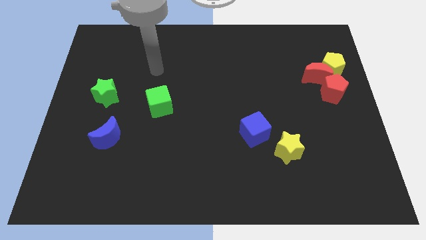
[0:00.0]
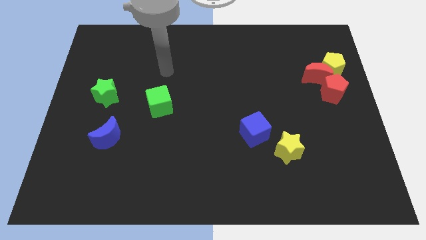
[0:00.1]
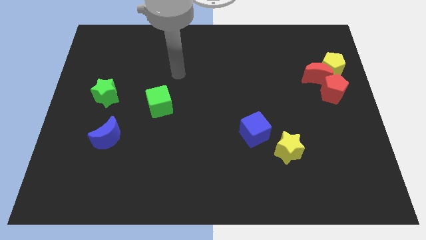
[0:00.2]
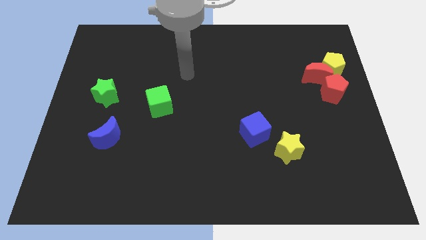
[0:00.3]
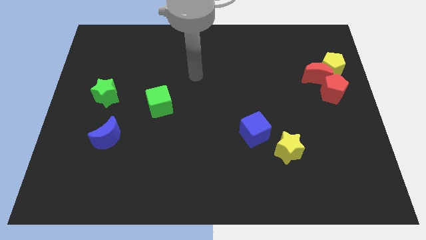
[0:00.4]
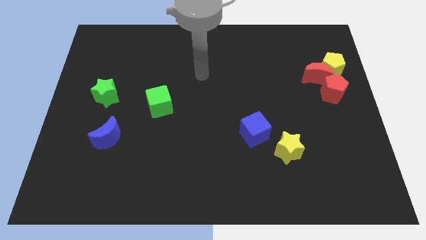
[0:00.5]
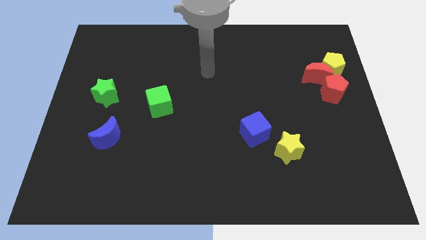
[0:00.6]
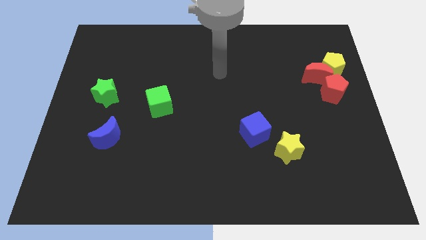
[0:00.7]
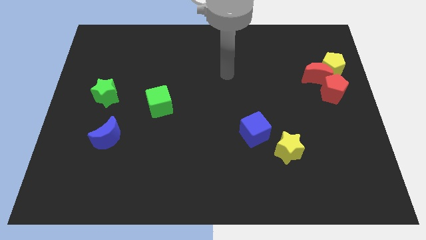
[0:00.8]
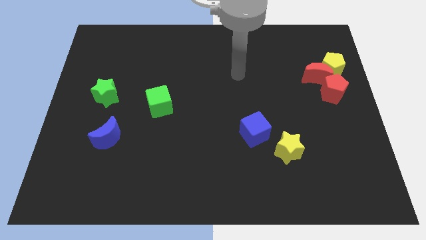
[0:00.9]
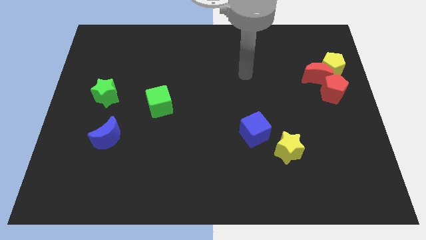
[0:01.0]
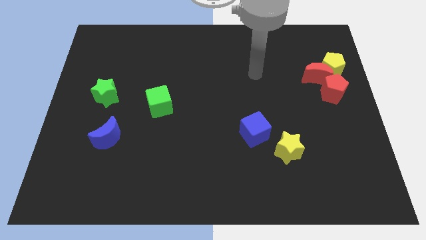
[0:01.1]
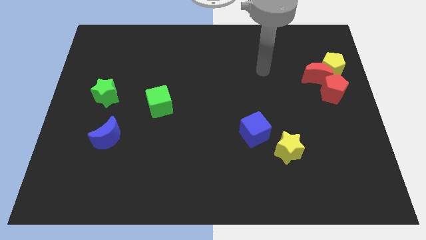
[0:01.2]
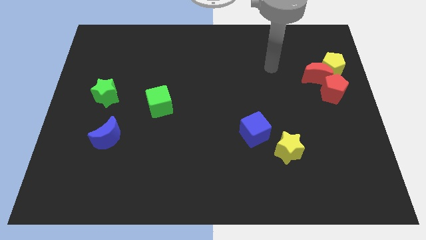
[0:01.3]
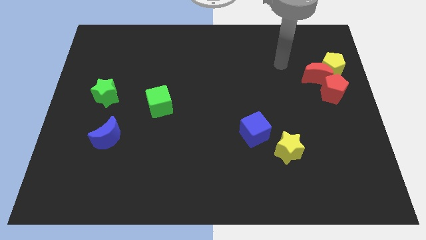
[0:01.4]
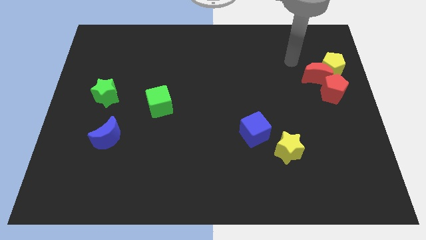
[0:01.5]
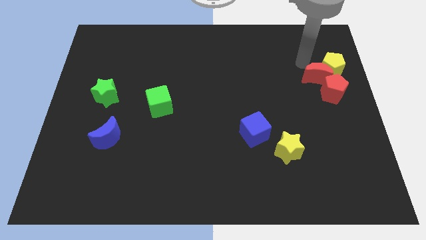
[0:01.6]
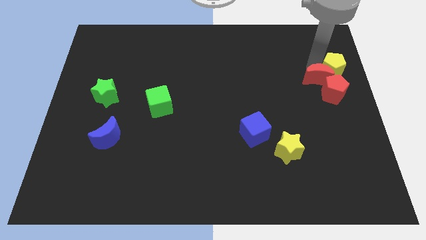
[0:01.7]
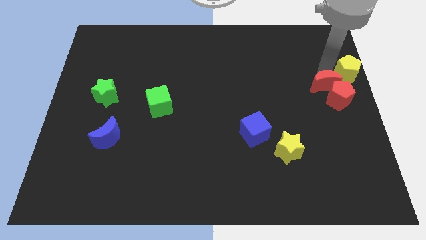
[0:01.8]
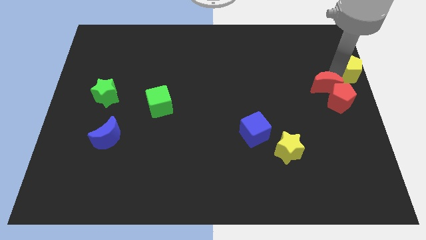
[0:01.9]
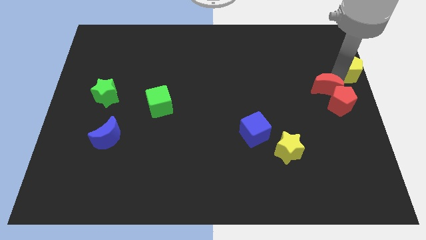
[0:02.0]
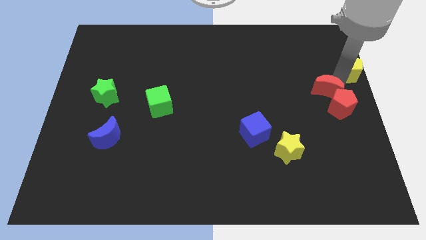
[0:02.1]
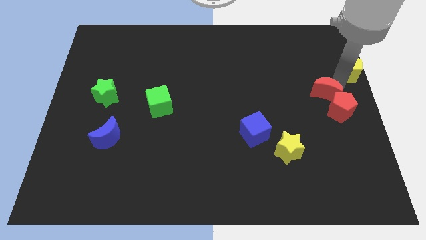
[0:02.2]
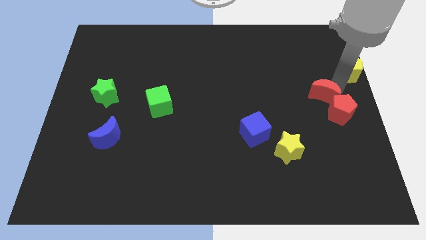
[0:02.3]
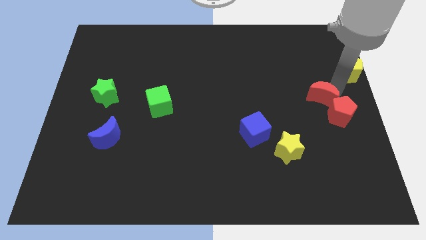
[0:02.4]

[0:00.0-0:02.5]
move the red pentagon down a little

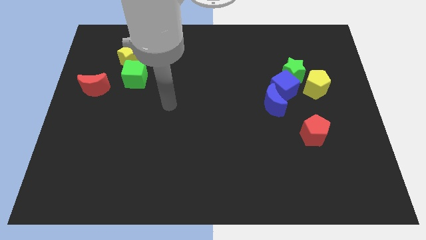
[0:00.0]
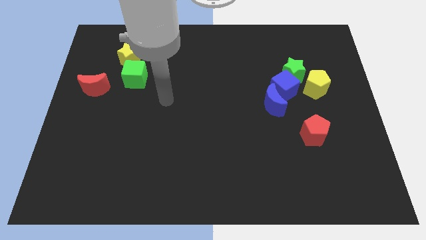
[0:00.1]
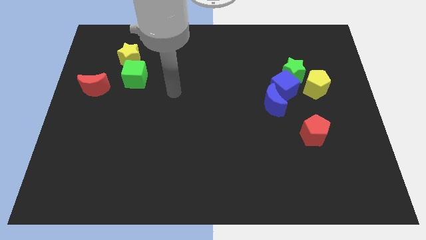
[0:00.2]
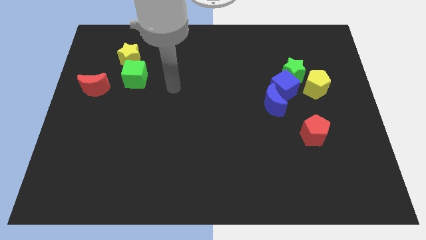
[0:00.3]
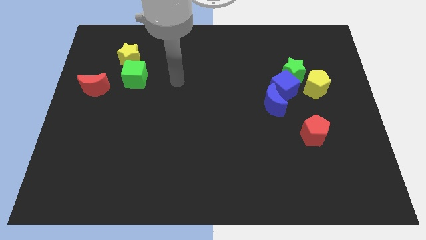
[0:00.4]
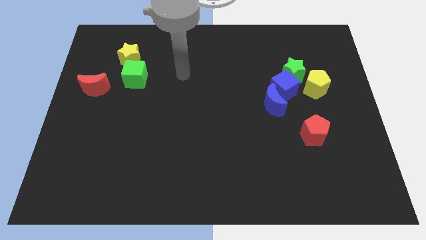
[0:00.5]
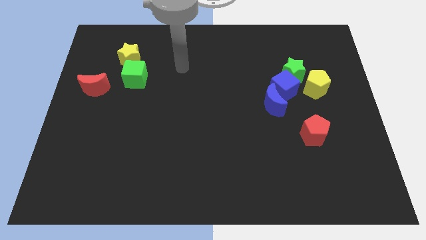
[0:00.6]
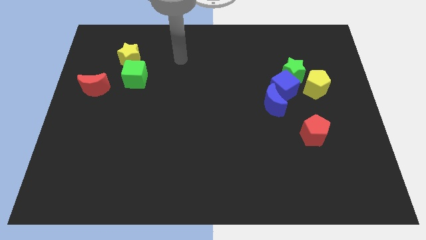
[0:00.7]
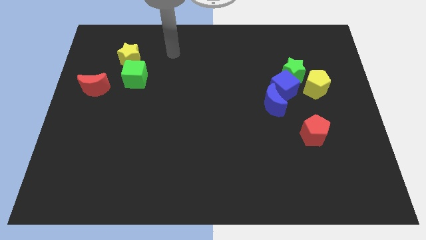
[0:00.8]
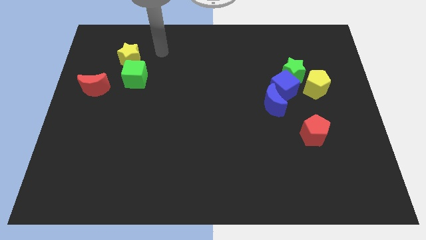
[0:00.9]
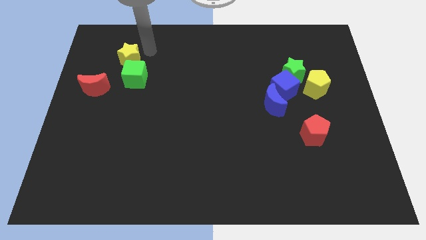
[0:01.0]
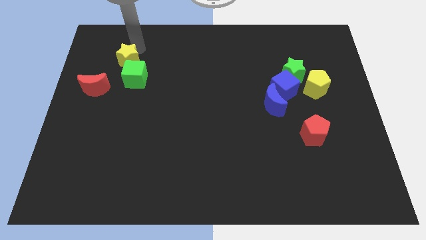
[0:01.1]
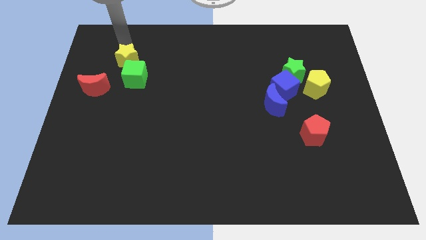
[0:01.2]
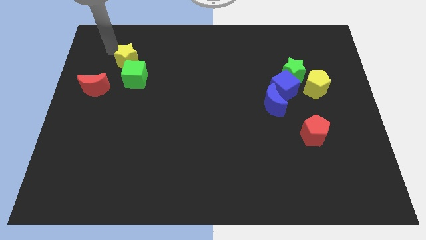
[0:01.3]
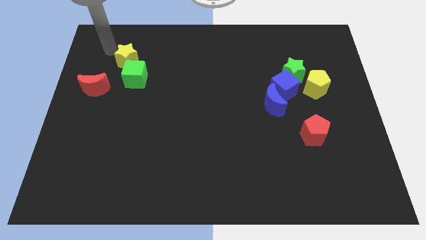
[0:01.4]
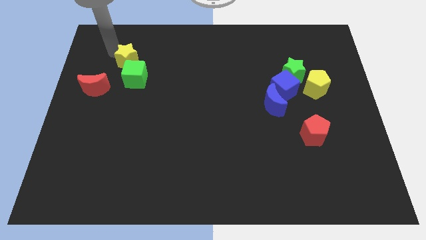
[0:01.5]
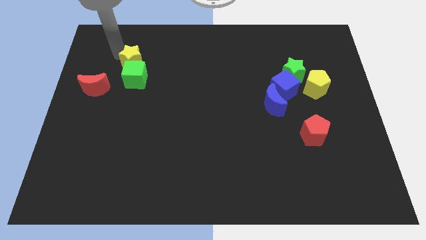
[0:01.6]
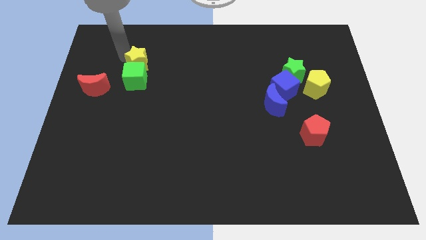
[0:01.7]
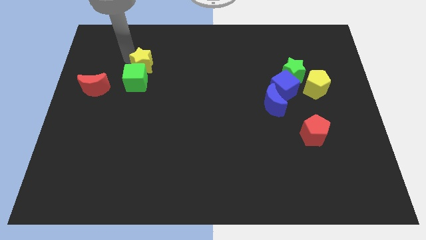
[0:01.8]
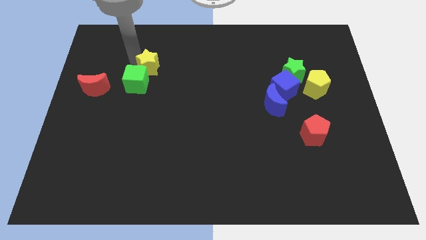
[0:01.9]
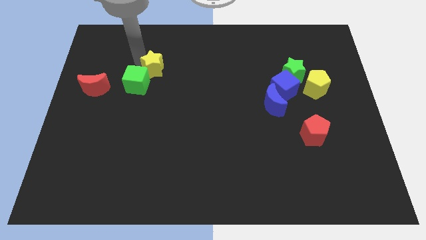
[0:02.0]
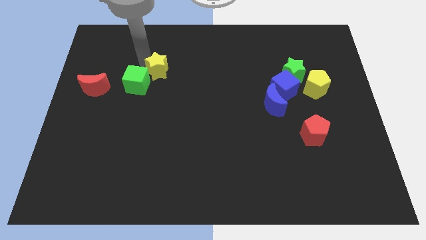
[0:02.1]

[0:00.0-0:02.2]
move the yellow star down and then to the right a little

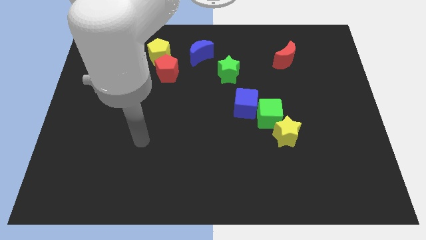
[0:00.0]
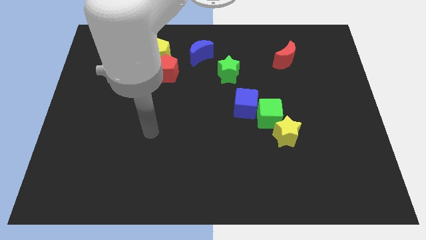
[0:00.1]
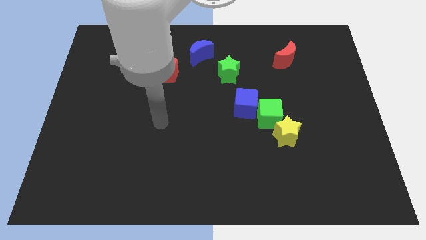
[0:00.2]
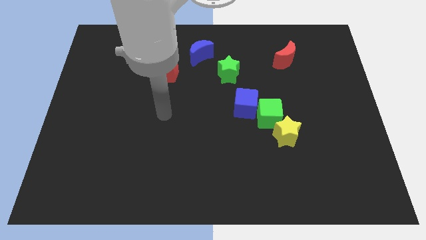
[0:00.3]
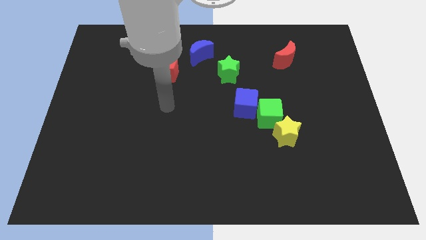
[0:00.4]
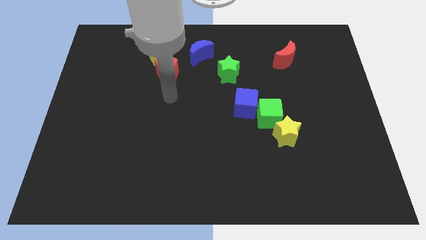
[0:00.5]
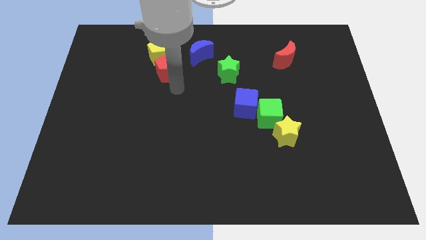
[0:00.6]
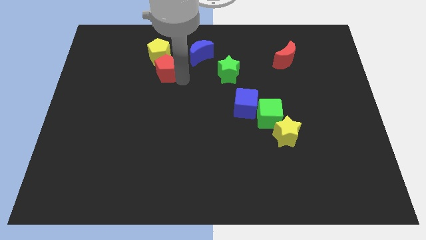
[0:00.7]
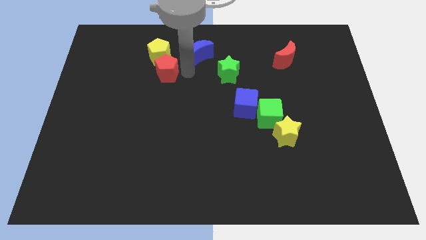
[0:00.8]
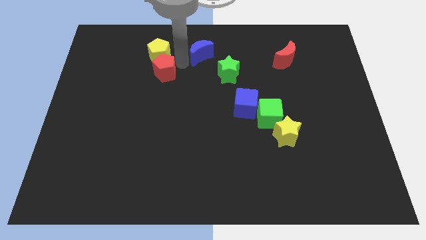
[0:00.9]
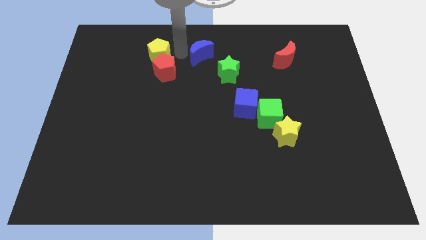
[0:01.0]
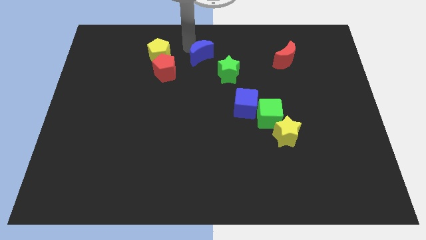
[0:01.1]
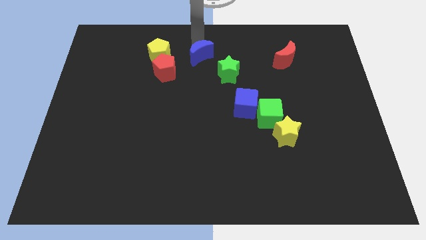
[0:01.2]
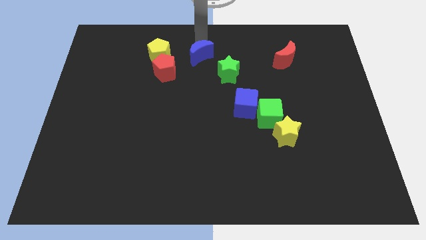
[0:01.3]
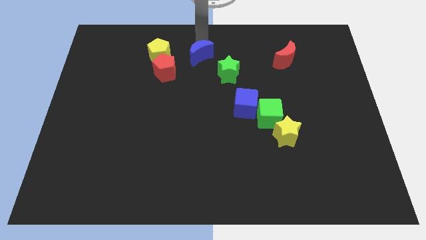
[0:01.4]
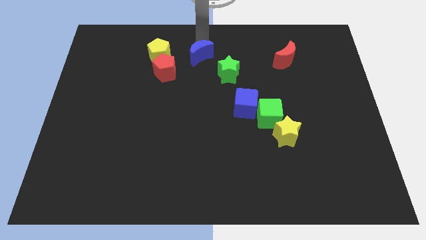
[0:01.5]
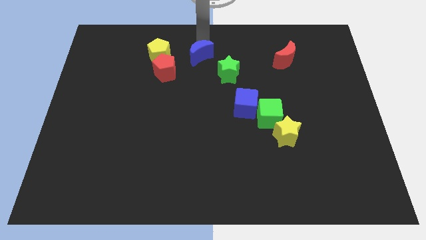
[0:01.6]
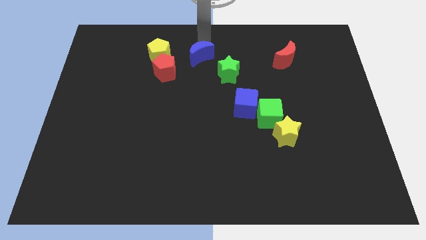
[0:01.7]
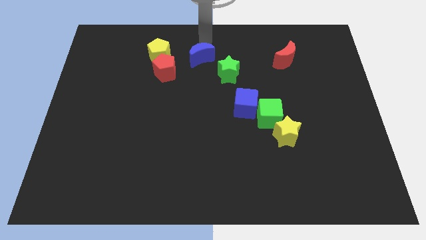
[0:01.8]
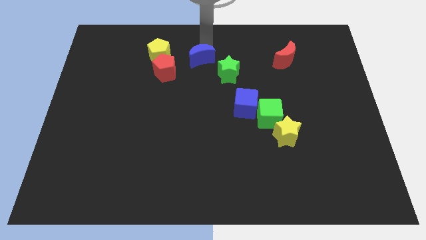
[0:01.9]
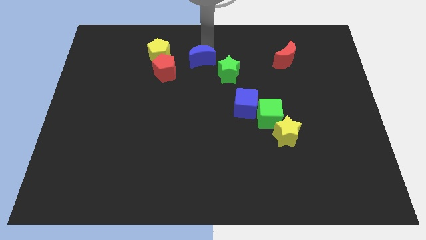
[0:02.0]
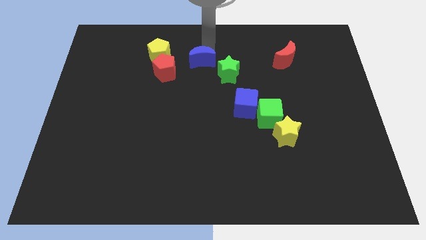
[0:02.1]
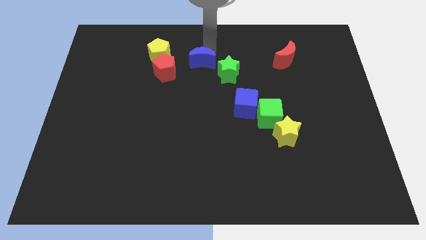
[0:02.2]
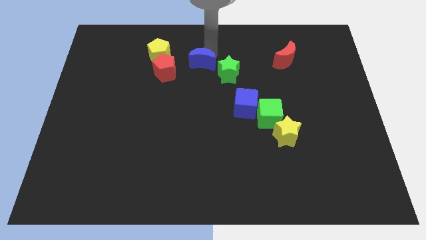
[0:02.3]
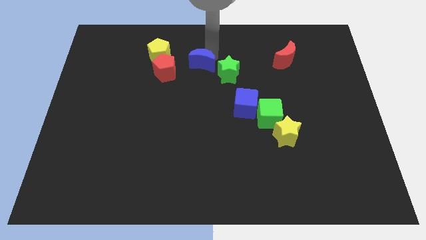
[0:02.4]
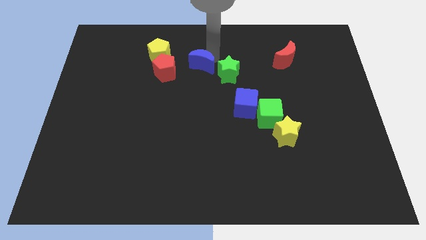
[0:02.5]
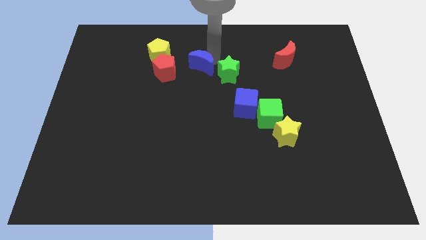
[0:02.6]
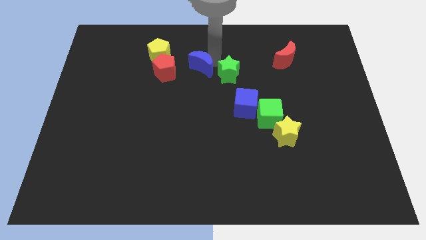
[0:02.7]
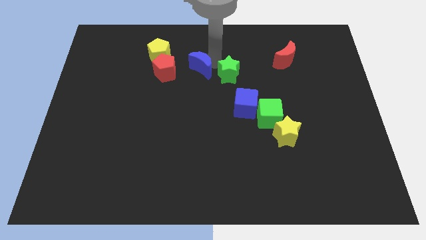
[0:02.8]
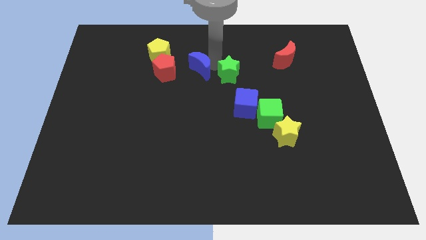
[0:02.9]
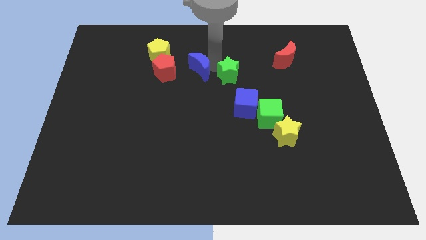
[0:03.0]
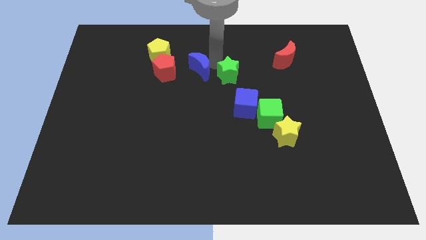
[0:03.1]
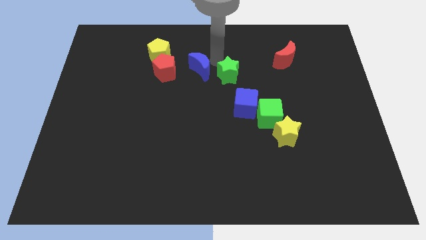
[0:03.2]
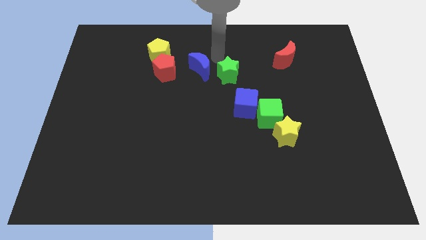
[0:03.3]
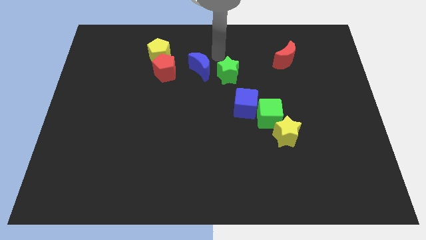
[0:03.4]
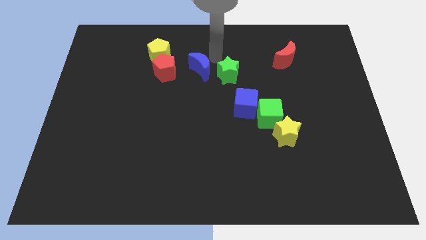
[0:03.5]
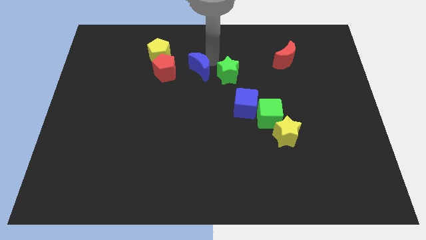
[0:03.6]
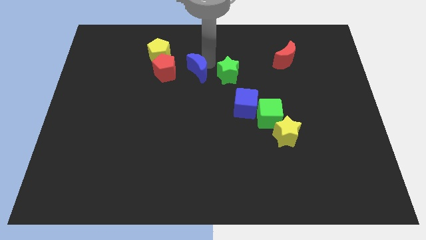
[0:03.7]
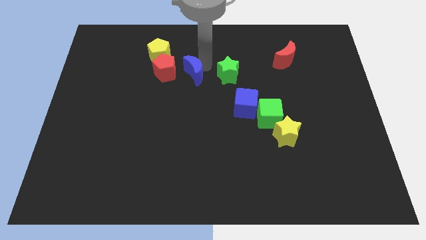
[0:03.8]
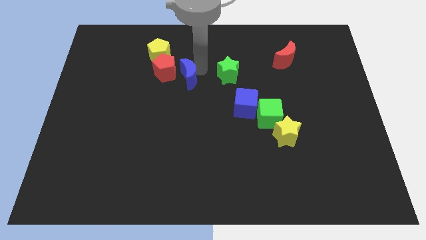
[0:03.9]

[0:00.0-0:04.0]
push the blue moon down and left diagonally slightly

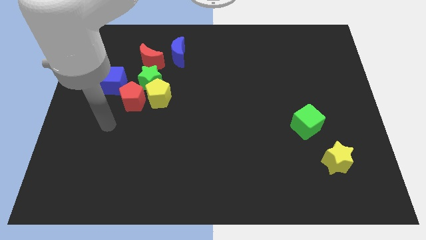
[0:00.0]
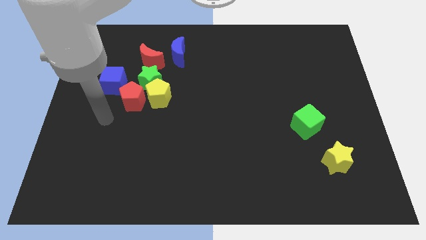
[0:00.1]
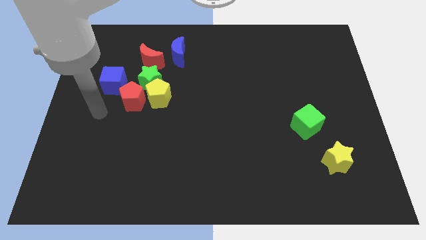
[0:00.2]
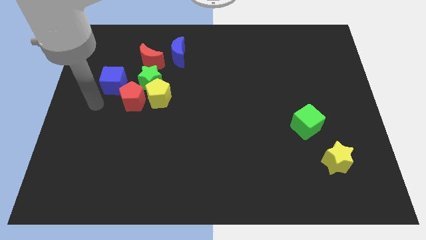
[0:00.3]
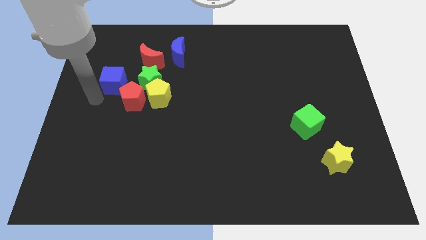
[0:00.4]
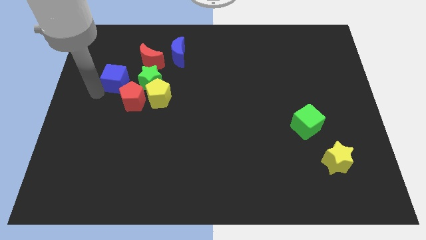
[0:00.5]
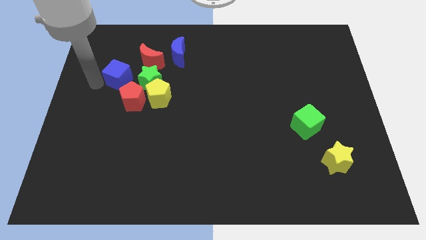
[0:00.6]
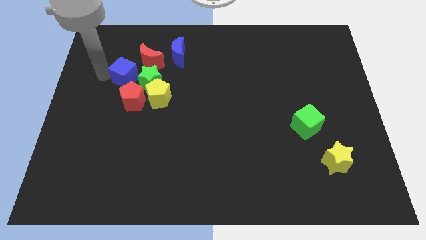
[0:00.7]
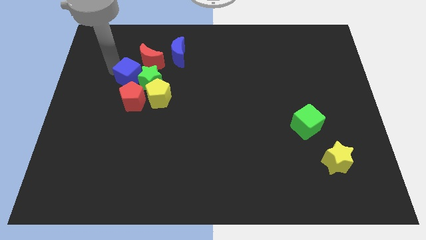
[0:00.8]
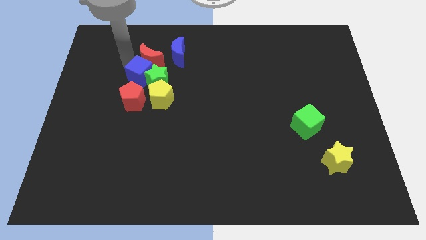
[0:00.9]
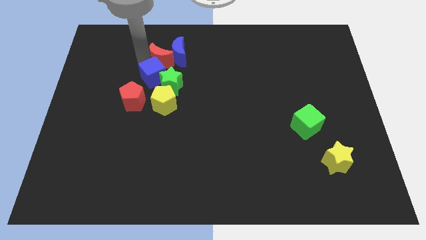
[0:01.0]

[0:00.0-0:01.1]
push the blue cube to the right slightly
